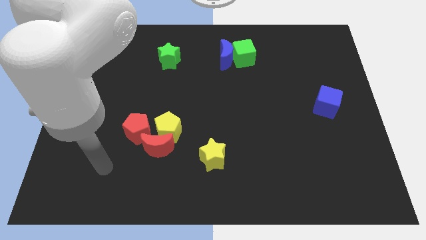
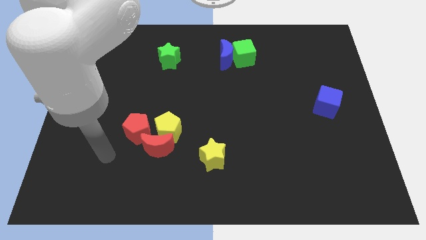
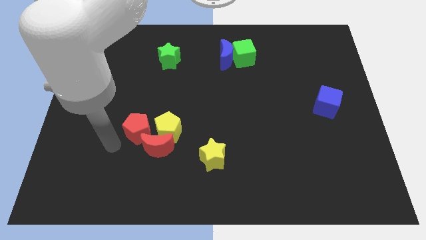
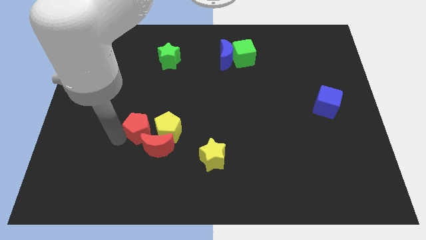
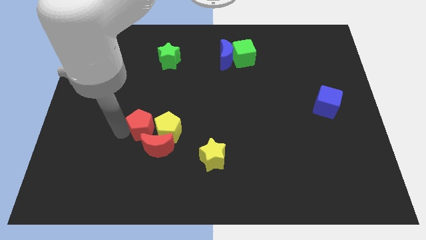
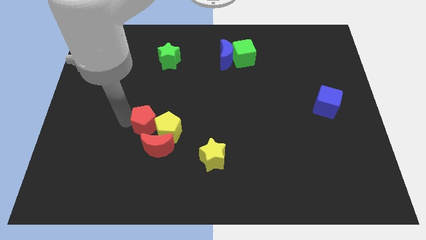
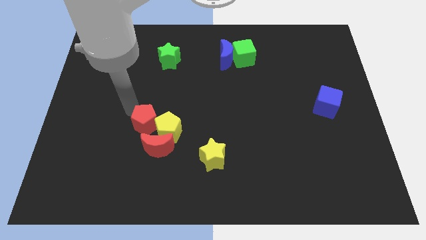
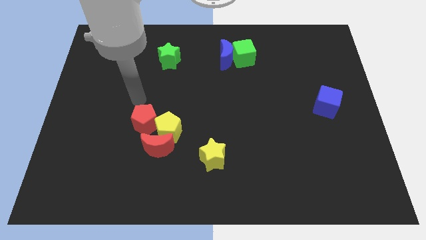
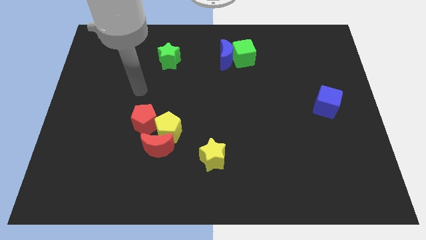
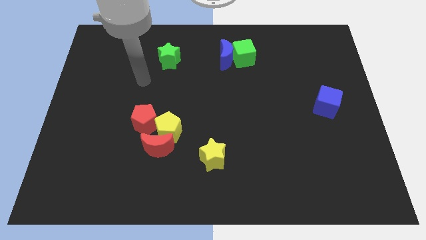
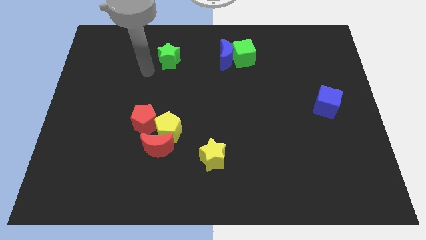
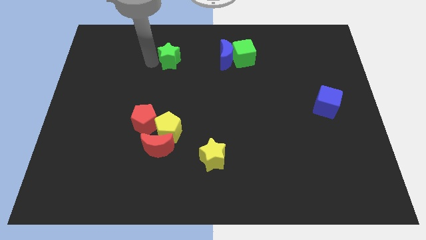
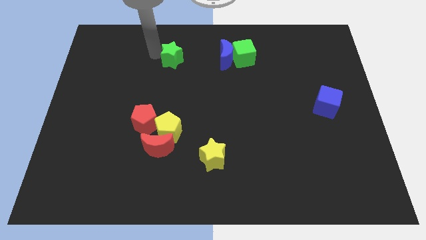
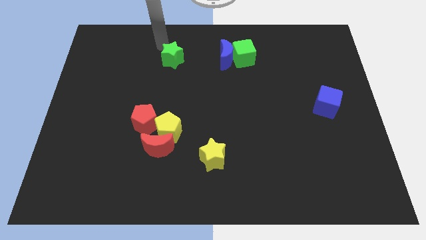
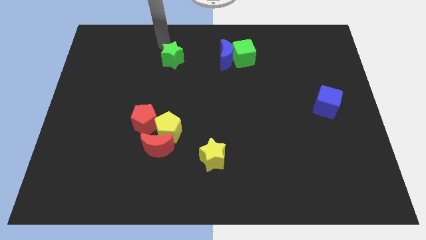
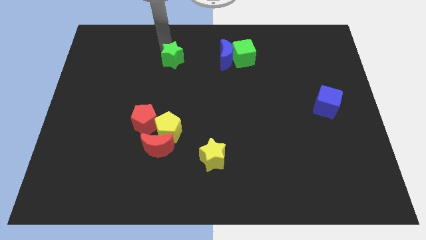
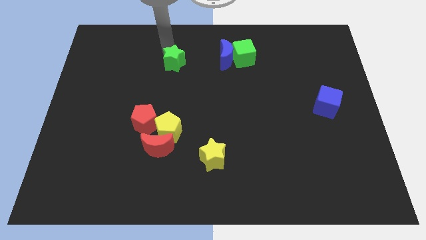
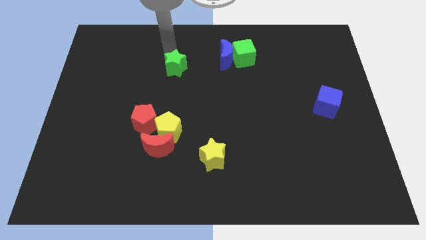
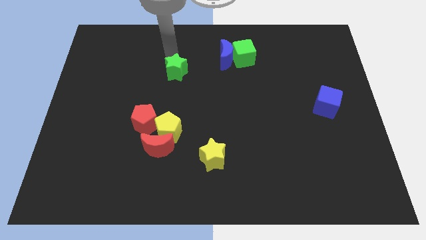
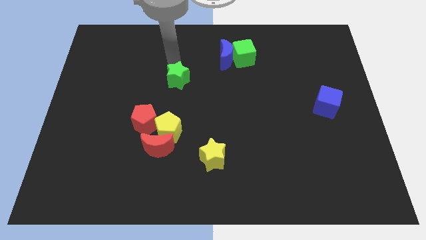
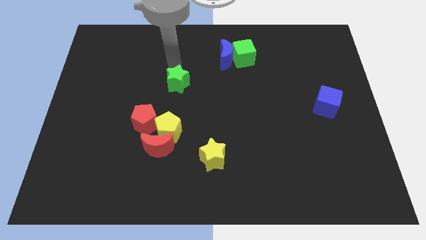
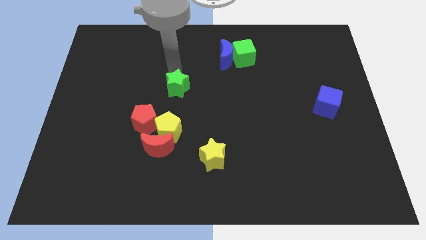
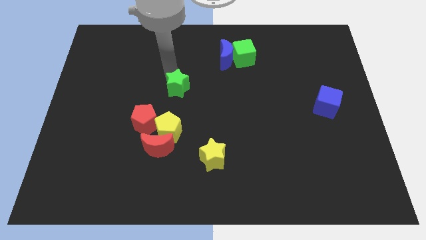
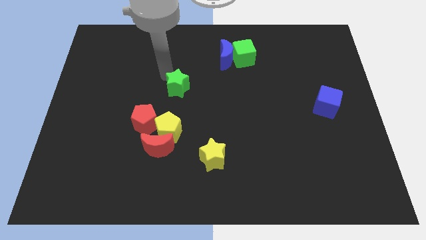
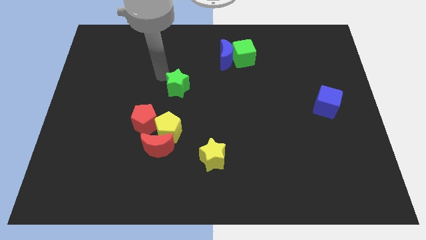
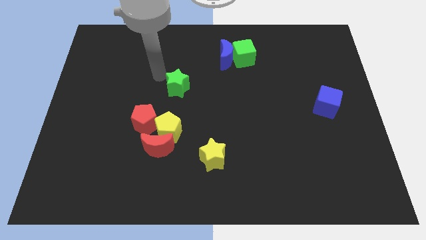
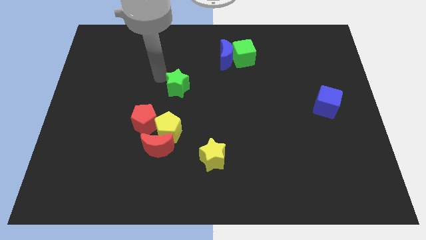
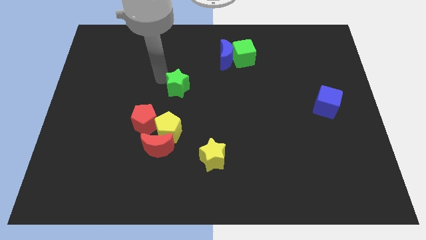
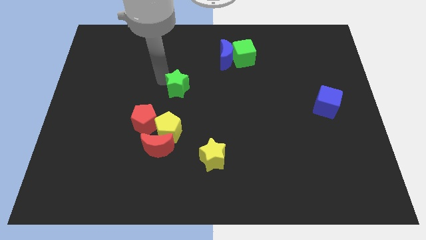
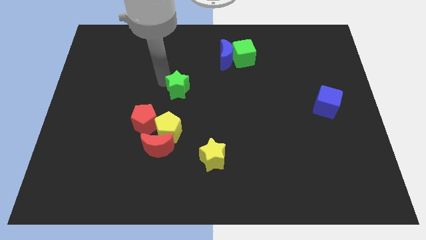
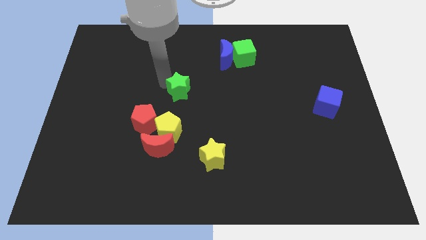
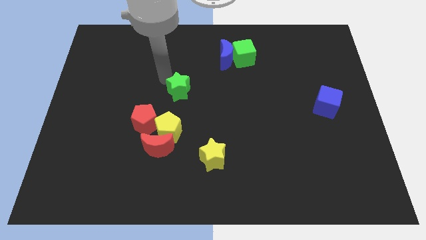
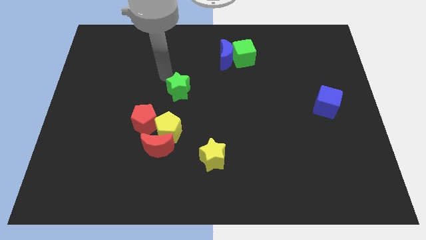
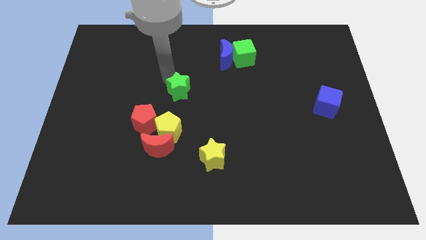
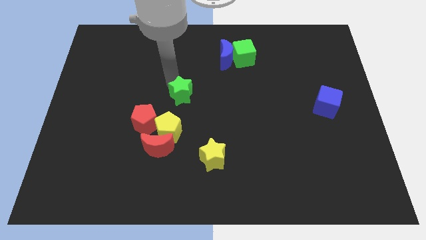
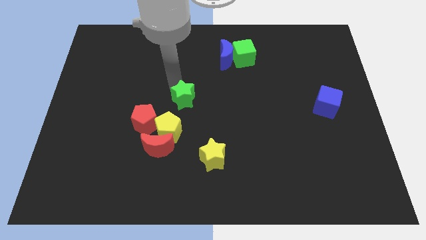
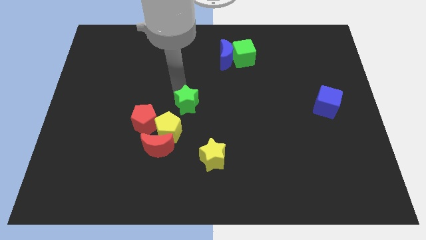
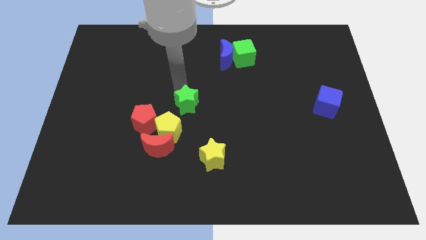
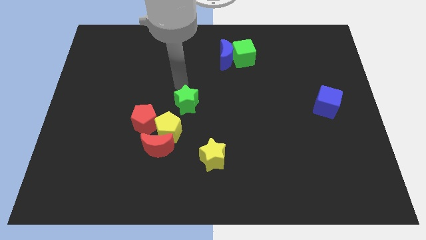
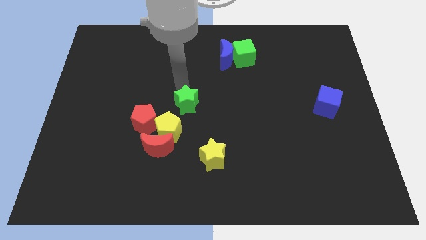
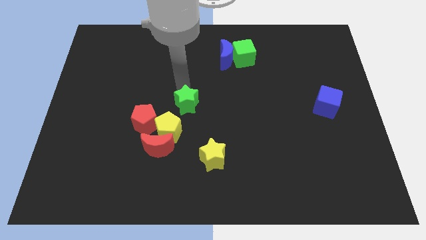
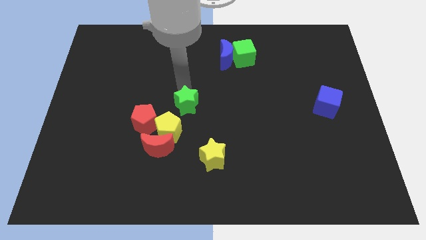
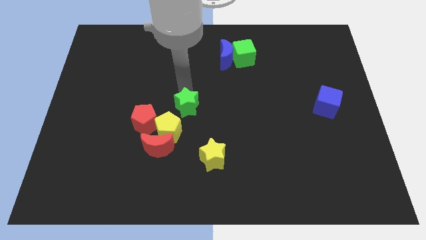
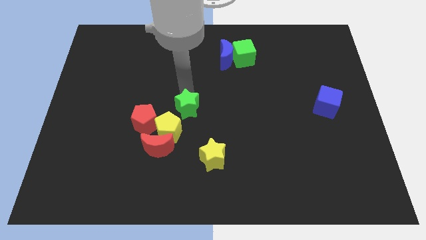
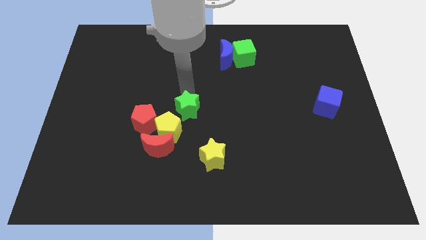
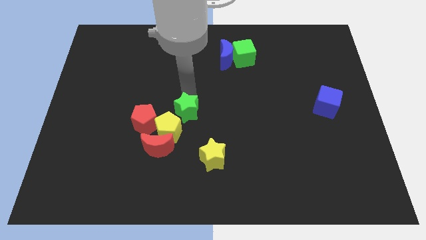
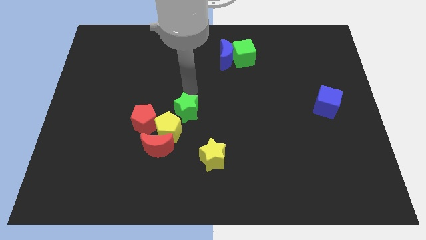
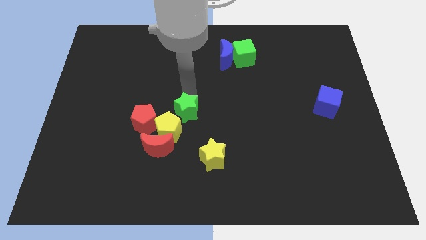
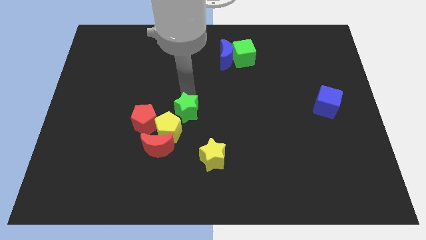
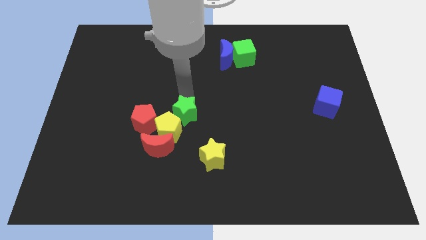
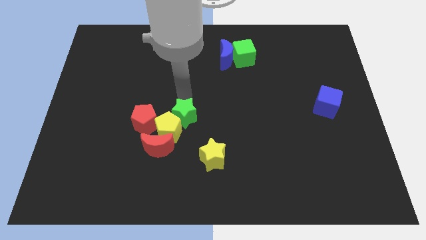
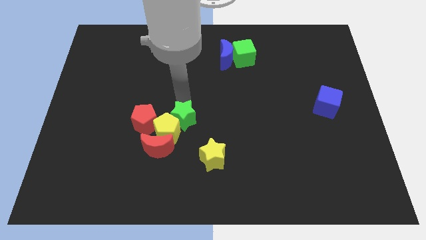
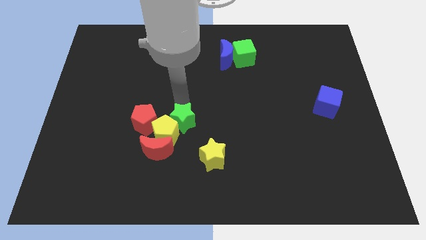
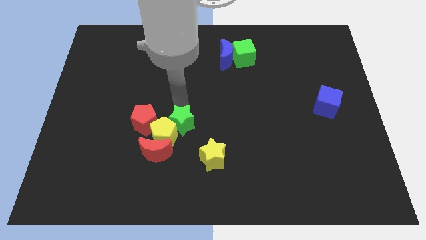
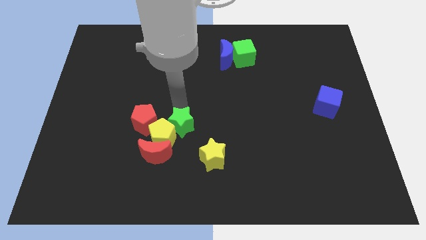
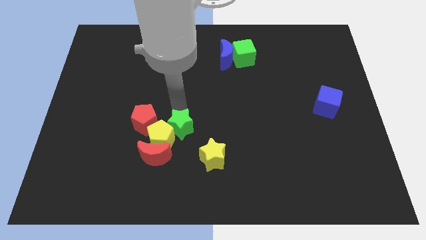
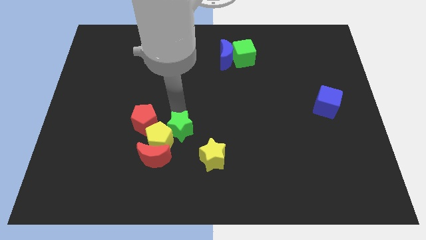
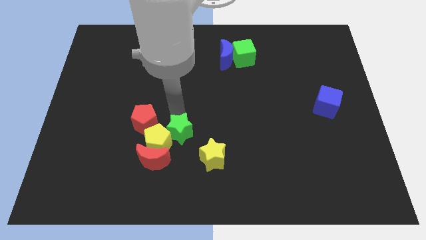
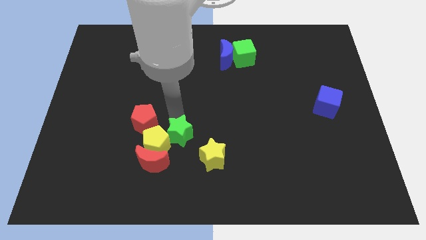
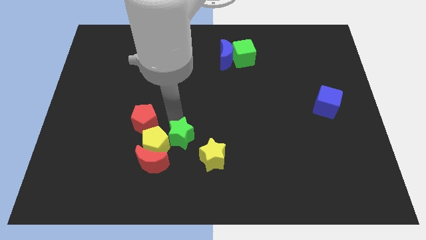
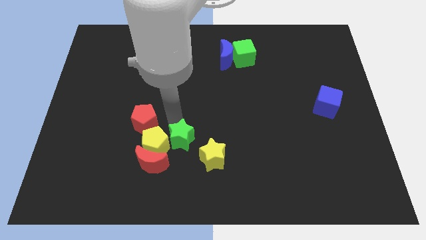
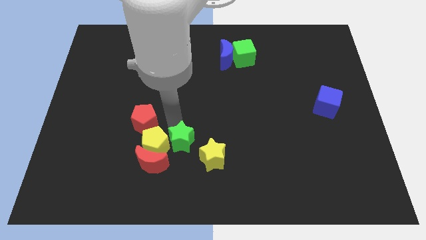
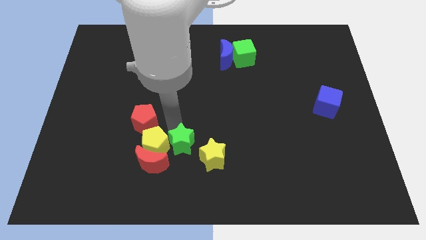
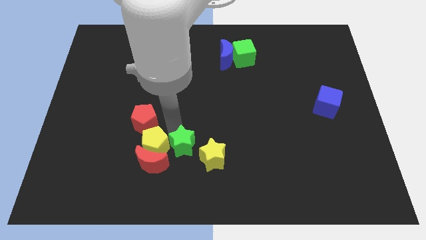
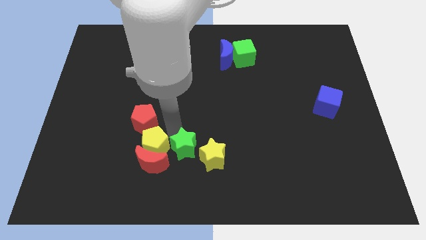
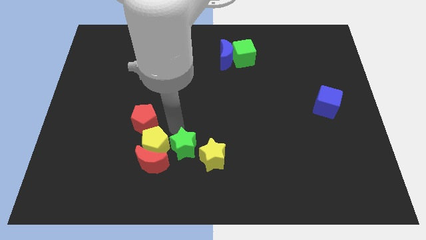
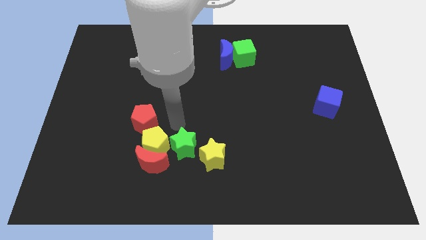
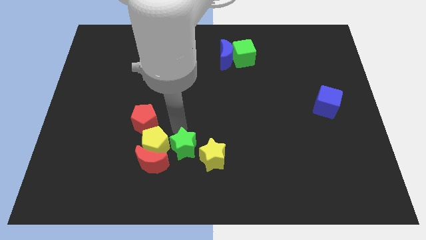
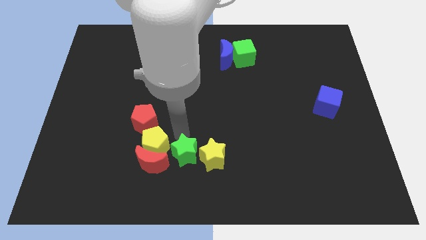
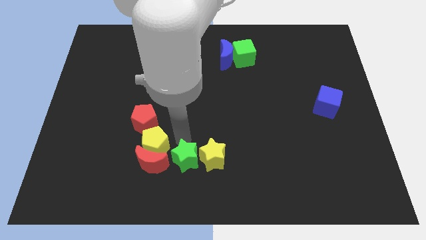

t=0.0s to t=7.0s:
move the green star to the bottom side
